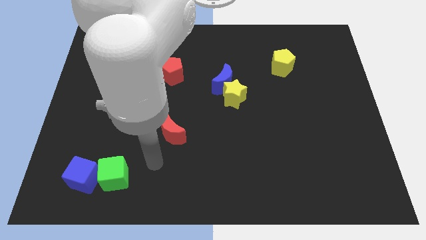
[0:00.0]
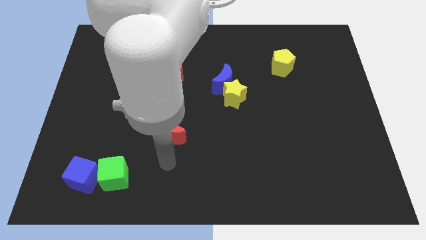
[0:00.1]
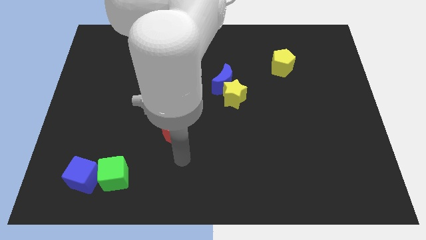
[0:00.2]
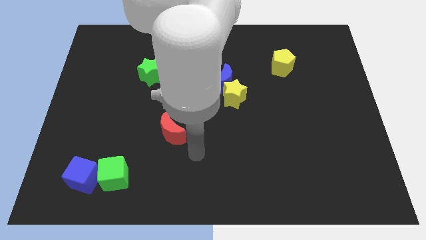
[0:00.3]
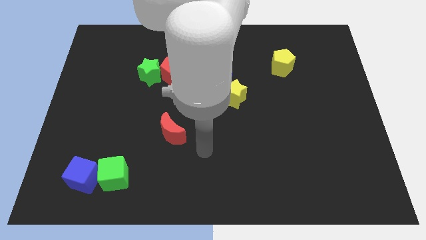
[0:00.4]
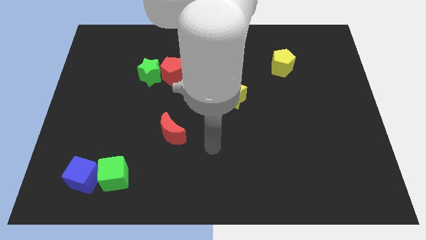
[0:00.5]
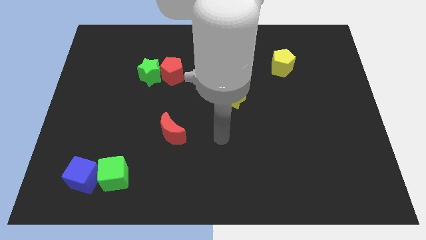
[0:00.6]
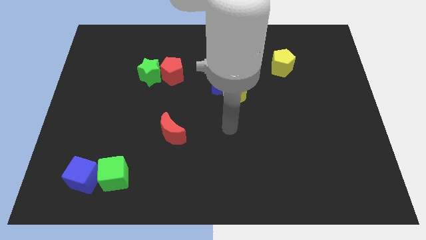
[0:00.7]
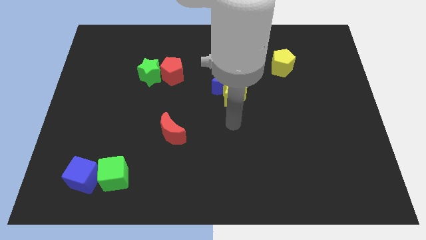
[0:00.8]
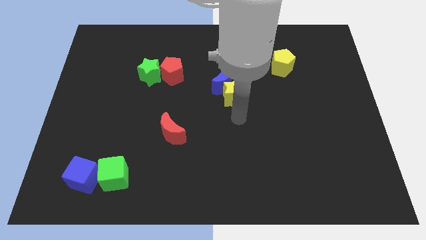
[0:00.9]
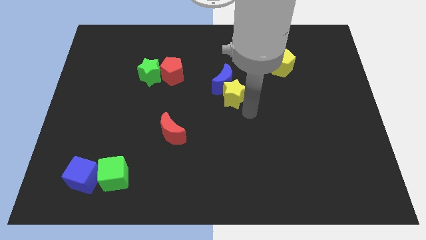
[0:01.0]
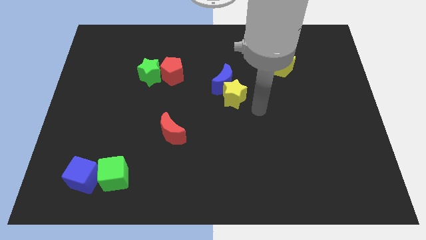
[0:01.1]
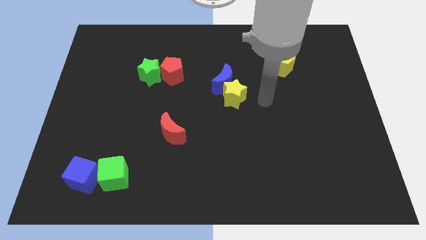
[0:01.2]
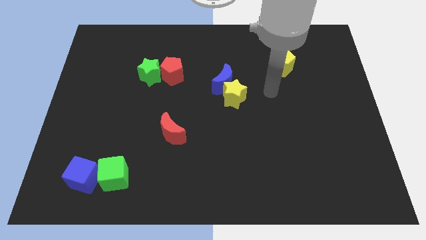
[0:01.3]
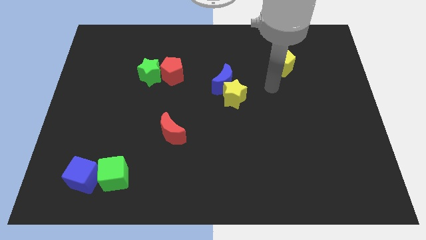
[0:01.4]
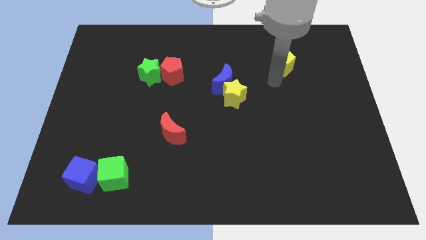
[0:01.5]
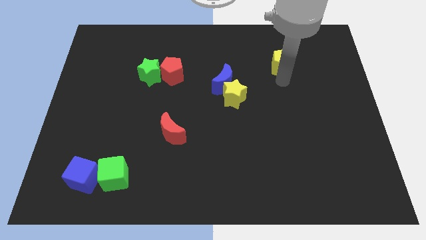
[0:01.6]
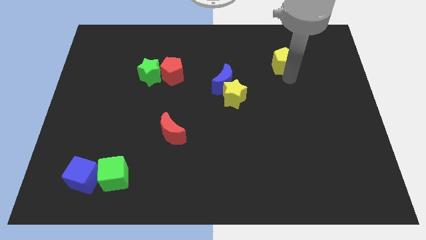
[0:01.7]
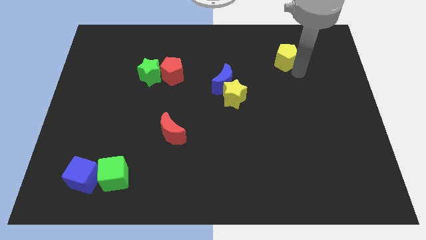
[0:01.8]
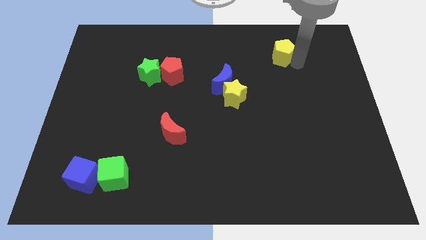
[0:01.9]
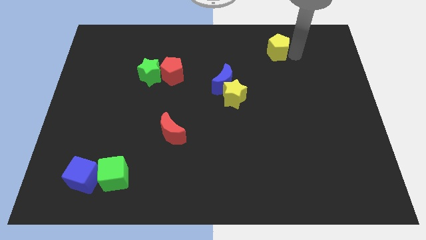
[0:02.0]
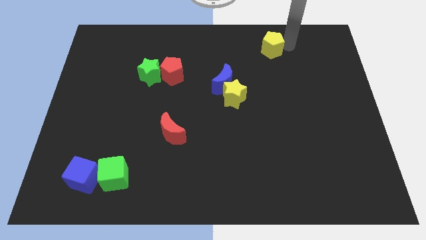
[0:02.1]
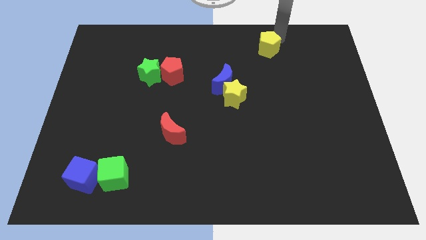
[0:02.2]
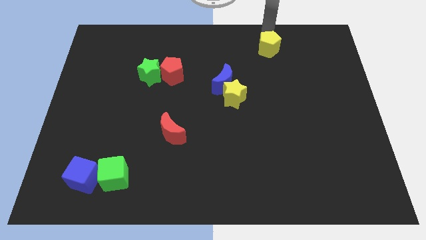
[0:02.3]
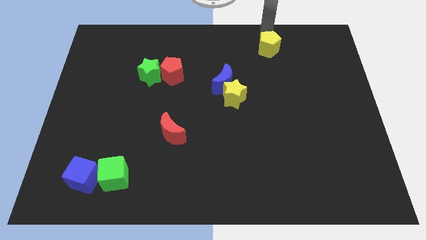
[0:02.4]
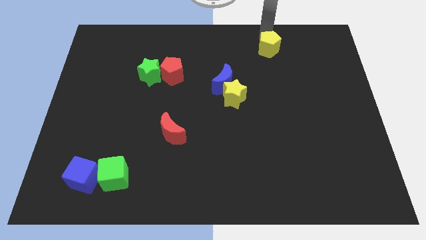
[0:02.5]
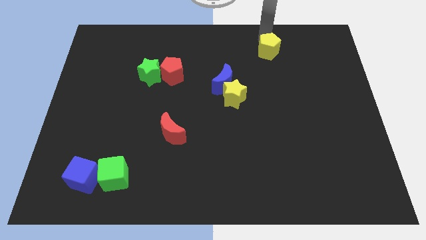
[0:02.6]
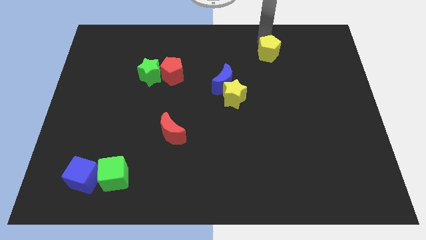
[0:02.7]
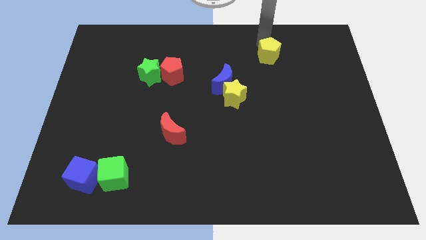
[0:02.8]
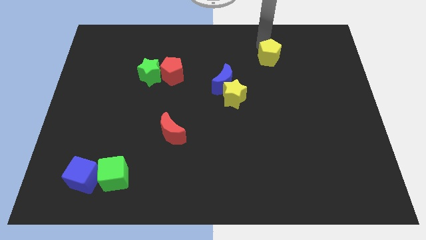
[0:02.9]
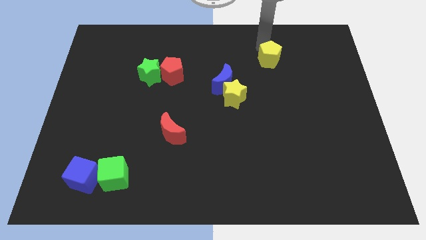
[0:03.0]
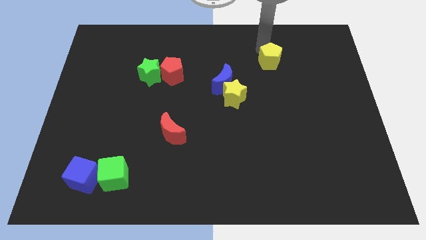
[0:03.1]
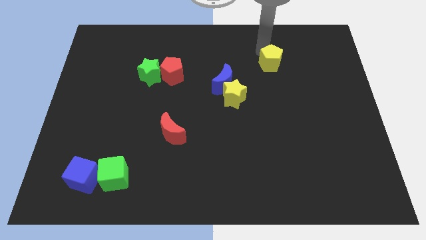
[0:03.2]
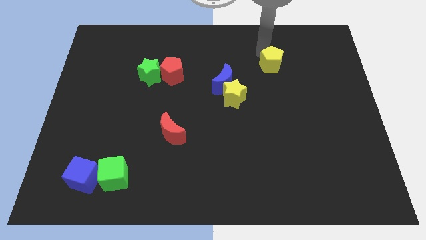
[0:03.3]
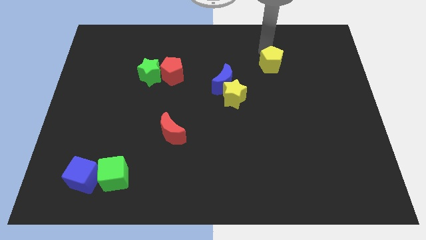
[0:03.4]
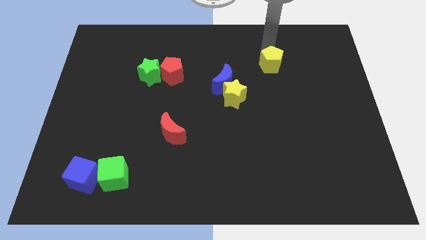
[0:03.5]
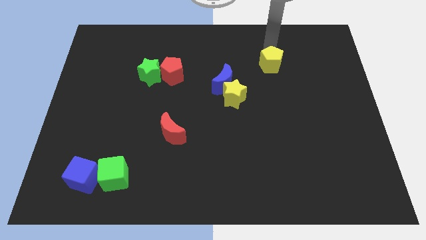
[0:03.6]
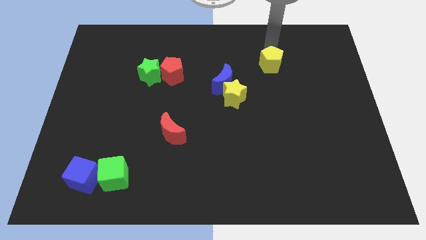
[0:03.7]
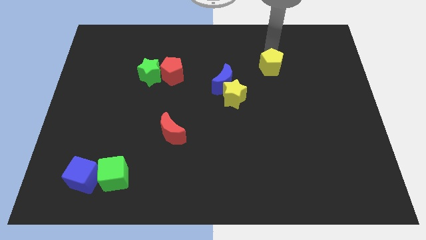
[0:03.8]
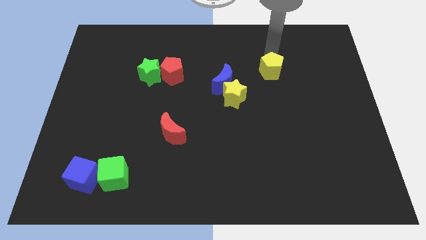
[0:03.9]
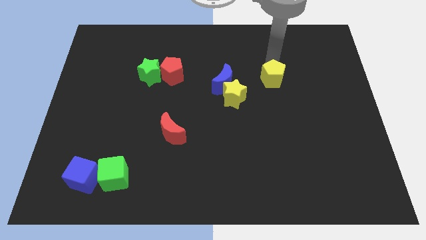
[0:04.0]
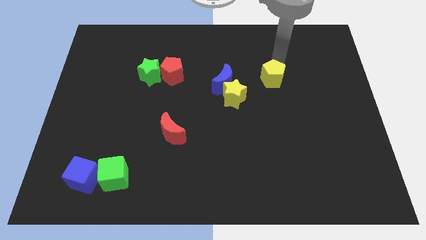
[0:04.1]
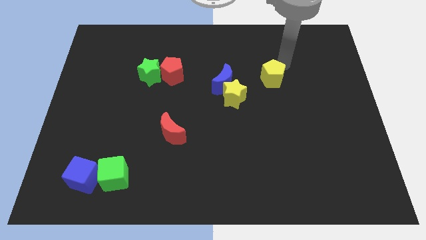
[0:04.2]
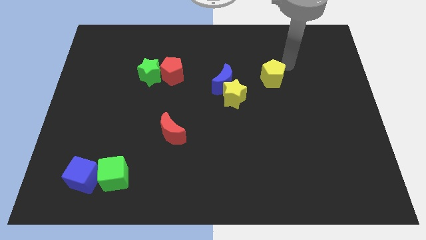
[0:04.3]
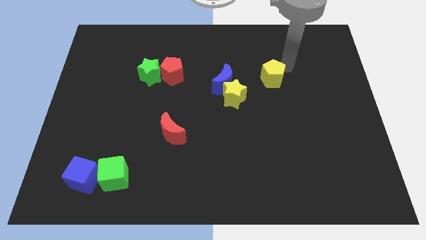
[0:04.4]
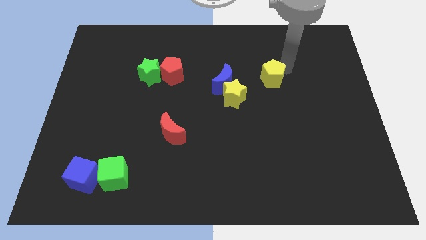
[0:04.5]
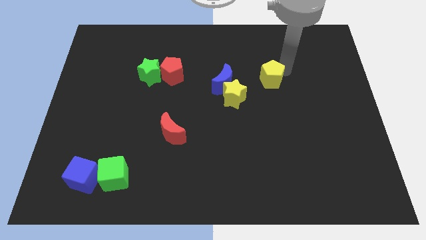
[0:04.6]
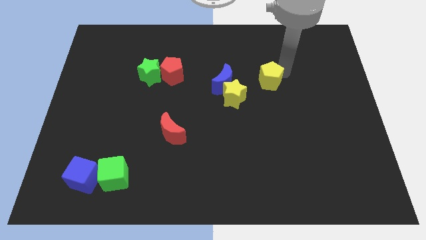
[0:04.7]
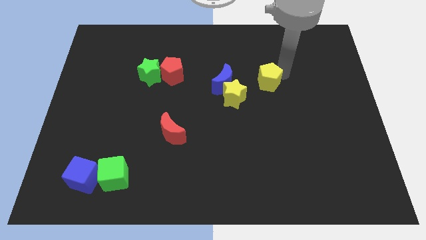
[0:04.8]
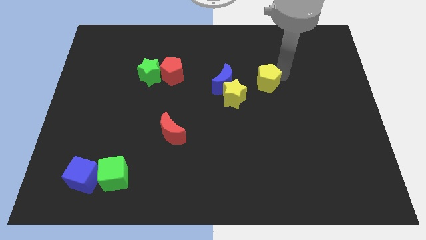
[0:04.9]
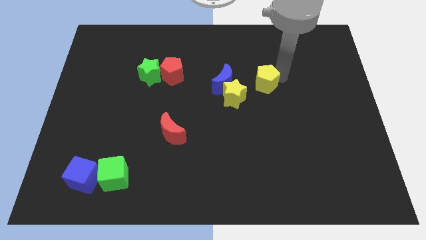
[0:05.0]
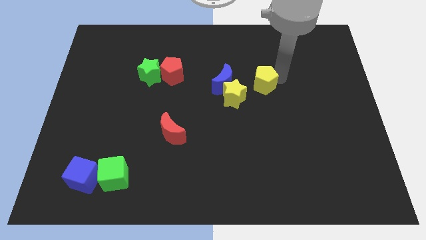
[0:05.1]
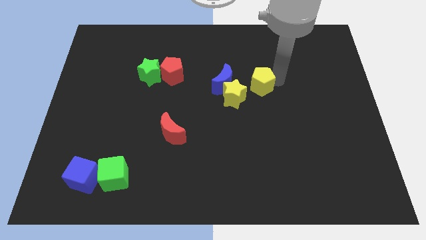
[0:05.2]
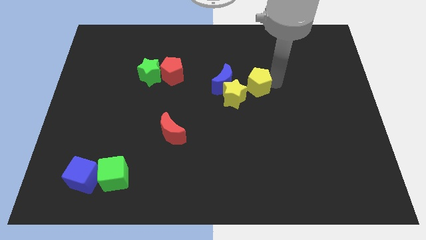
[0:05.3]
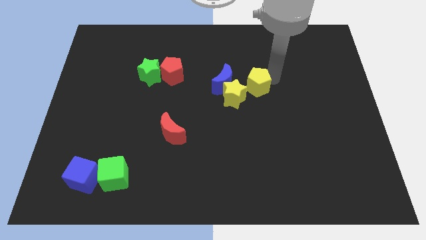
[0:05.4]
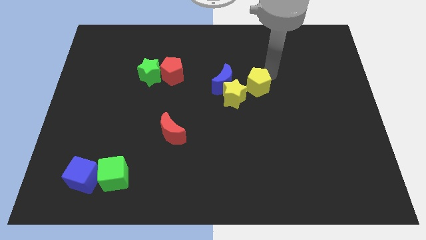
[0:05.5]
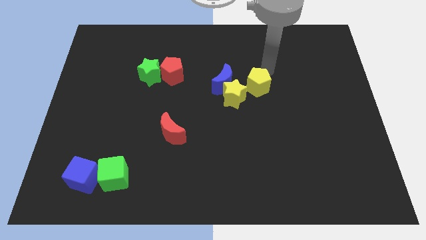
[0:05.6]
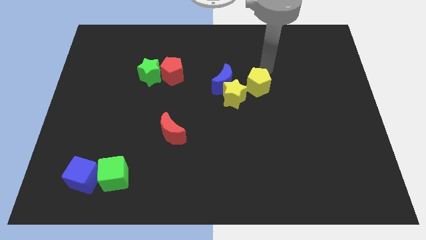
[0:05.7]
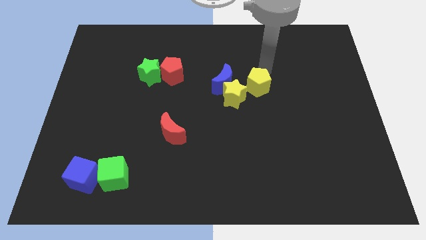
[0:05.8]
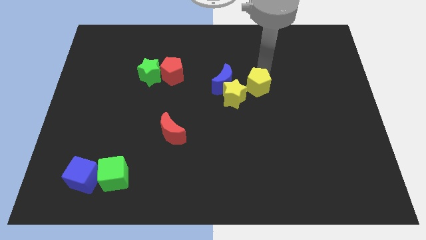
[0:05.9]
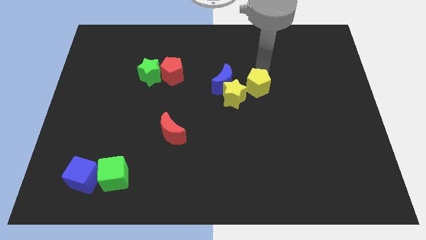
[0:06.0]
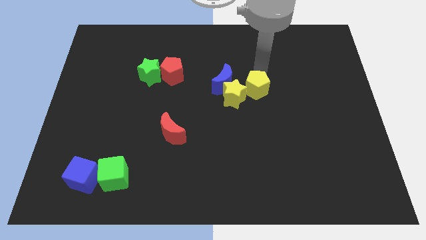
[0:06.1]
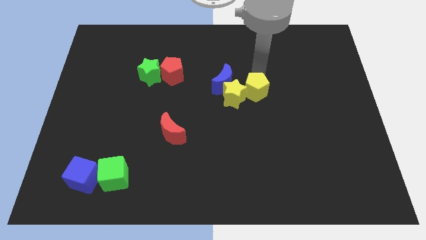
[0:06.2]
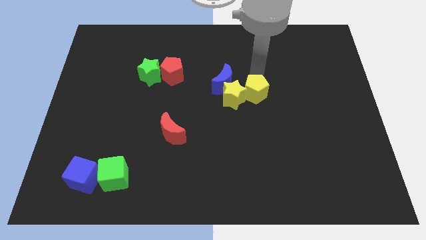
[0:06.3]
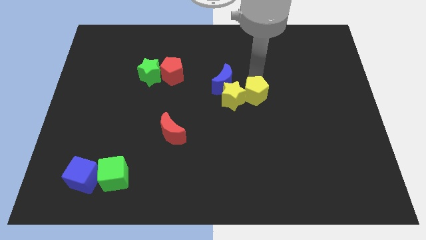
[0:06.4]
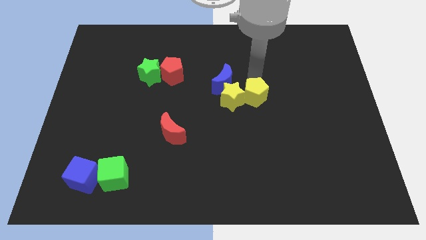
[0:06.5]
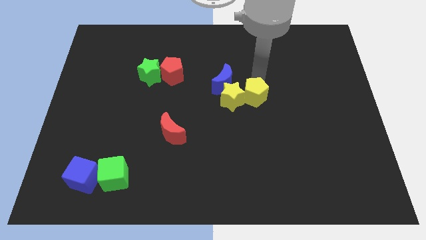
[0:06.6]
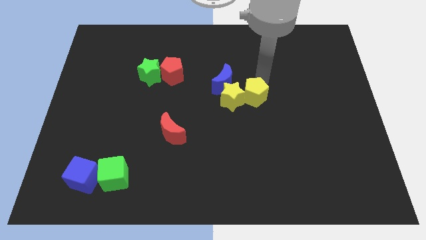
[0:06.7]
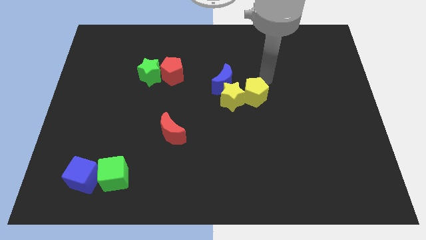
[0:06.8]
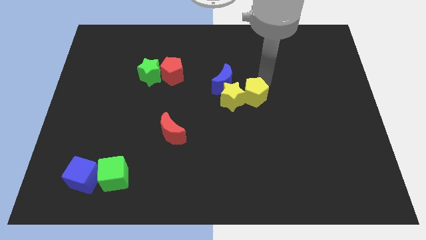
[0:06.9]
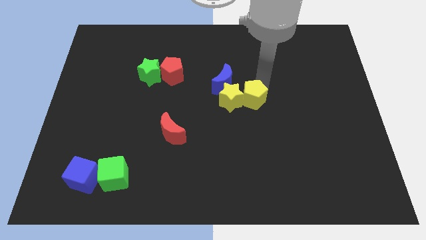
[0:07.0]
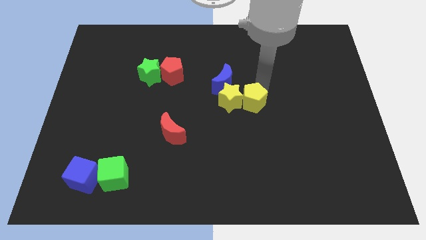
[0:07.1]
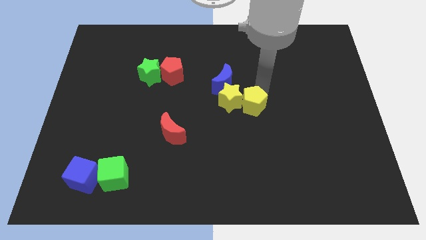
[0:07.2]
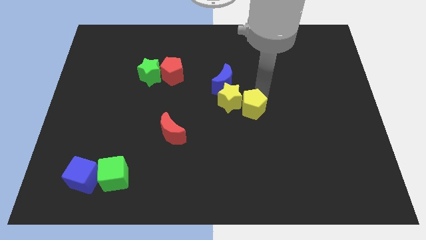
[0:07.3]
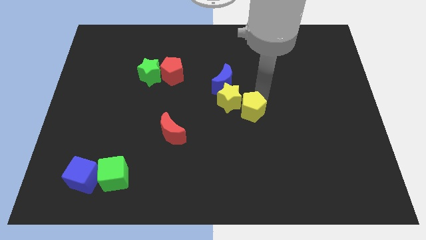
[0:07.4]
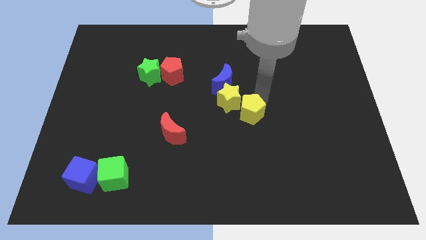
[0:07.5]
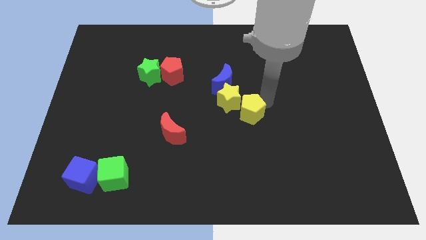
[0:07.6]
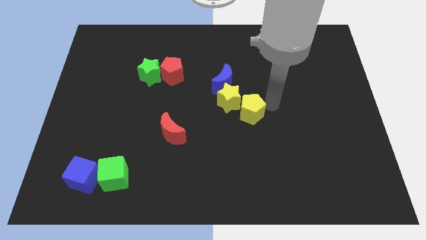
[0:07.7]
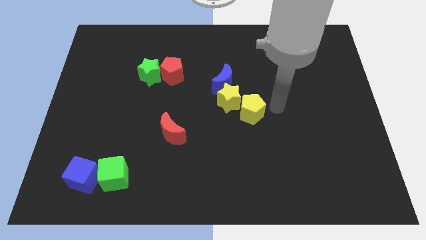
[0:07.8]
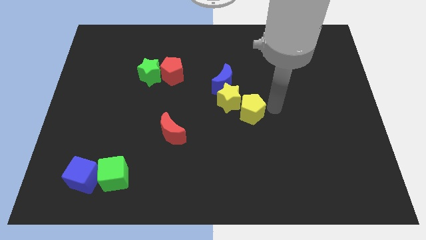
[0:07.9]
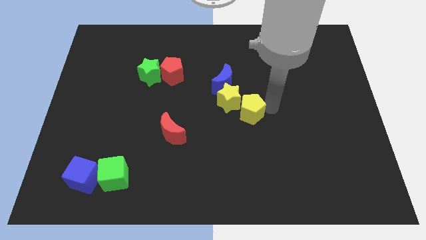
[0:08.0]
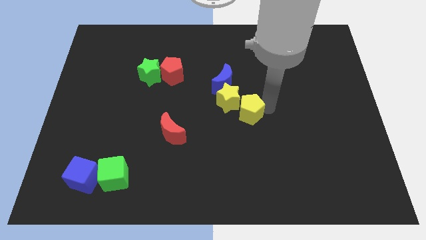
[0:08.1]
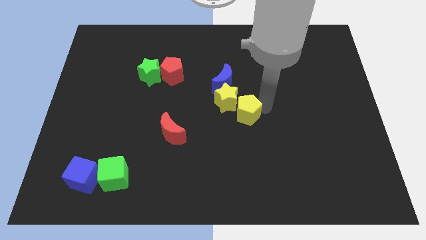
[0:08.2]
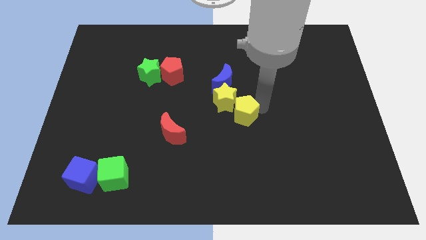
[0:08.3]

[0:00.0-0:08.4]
put the yellow pentagon to the bottom side of the blue moon

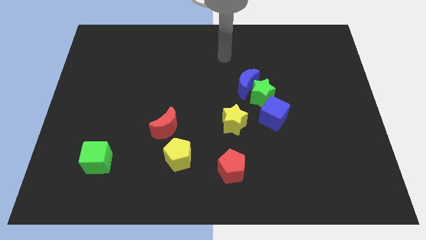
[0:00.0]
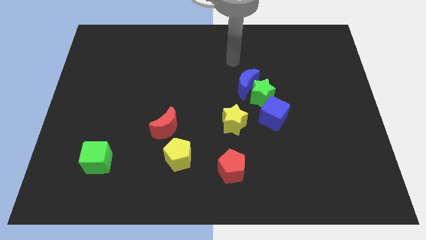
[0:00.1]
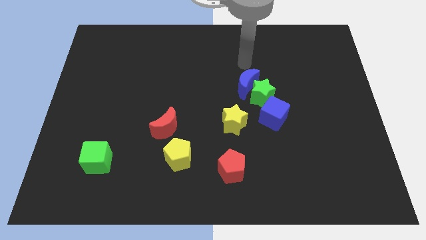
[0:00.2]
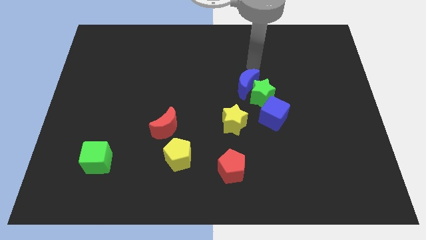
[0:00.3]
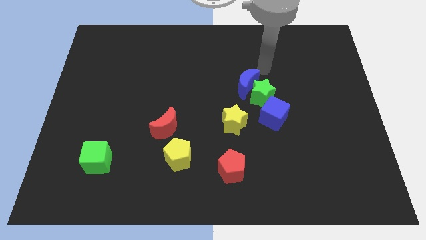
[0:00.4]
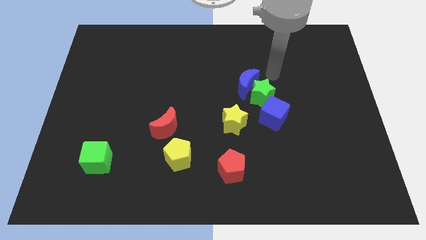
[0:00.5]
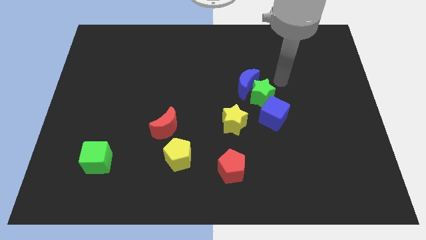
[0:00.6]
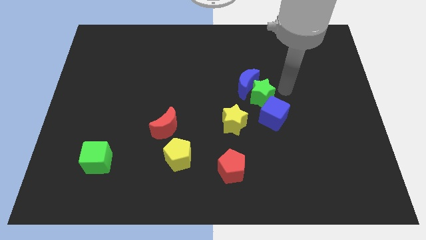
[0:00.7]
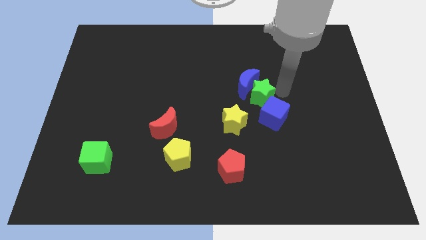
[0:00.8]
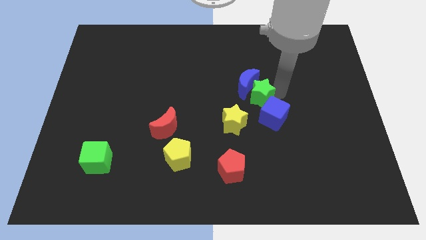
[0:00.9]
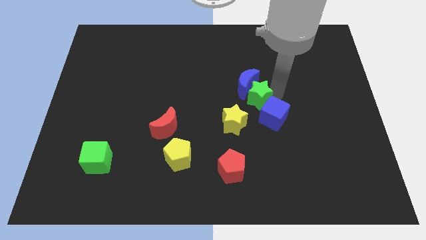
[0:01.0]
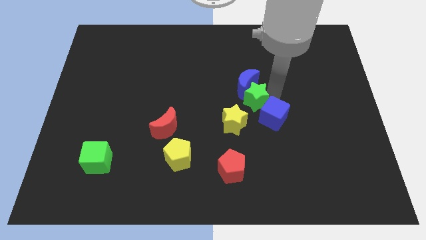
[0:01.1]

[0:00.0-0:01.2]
put the green star diagonally down and to the left of the blue moon
